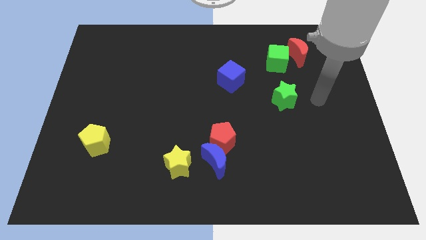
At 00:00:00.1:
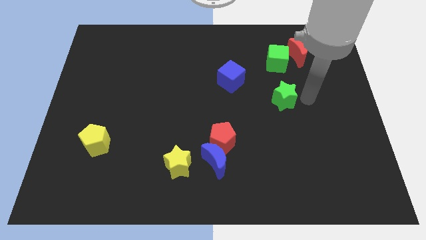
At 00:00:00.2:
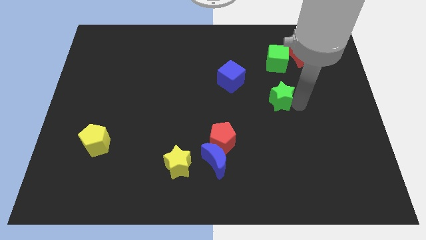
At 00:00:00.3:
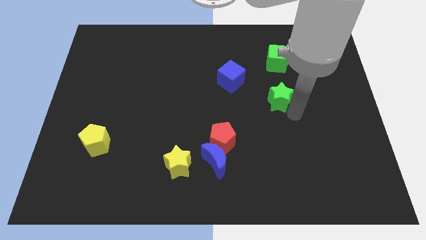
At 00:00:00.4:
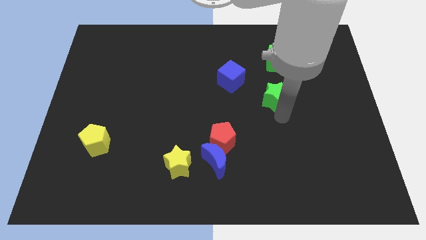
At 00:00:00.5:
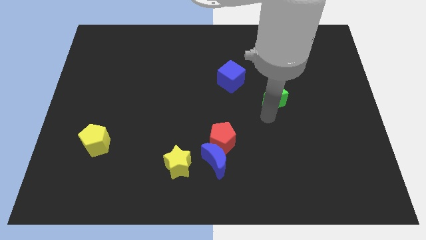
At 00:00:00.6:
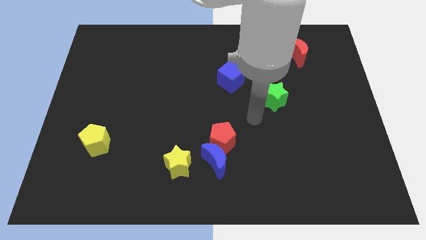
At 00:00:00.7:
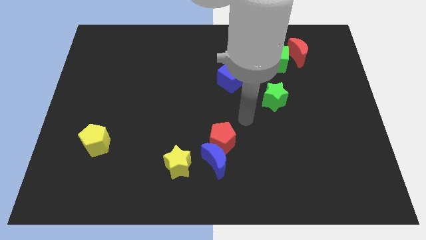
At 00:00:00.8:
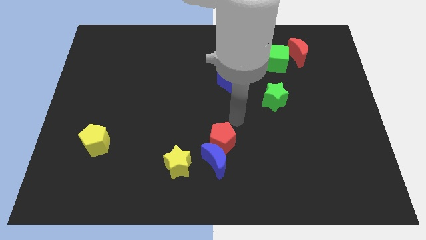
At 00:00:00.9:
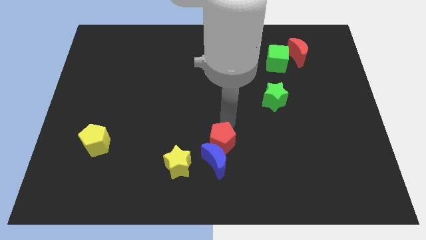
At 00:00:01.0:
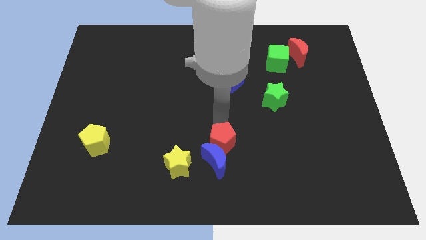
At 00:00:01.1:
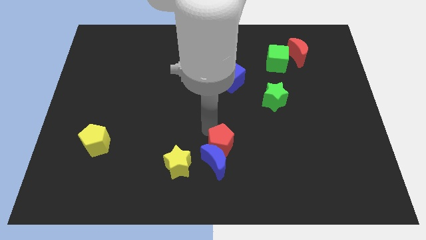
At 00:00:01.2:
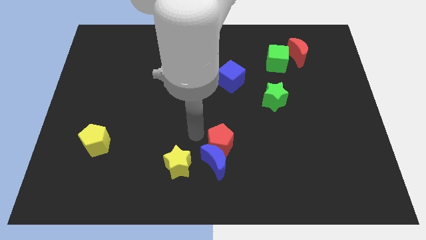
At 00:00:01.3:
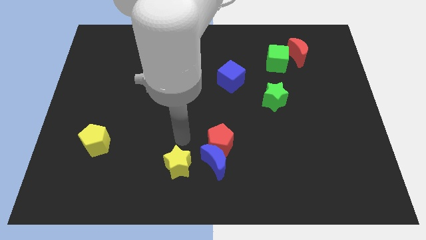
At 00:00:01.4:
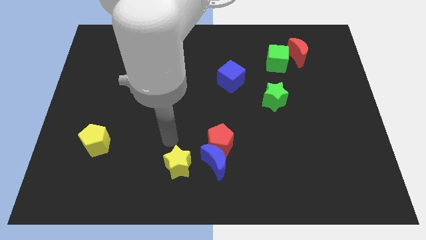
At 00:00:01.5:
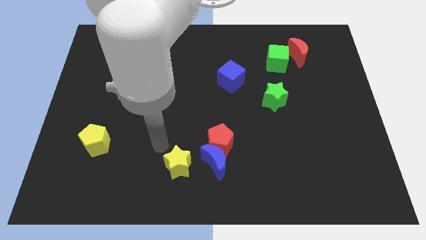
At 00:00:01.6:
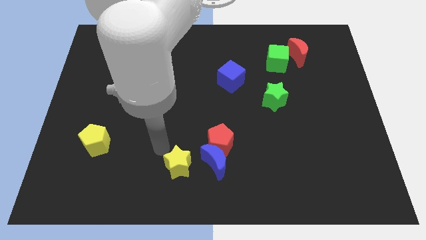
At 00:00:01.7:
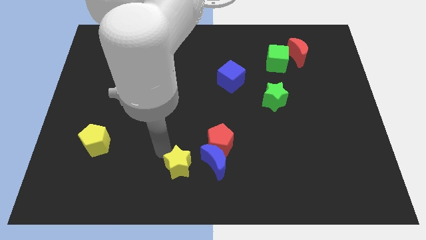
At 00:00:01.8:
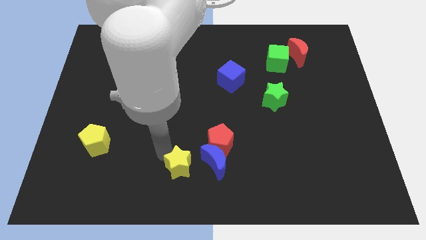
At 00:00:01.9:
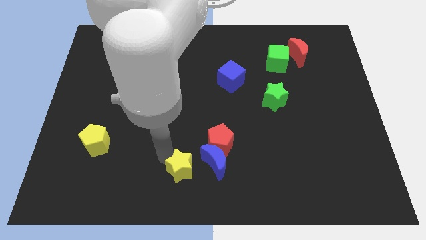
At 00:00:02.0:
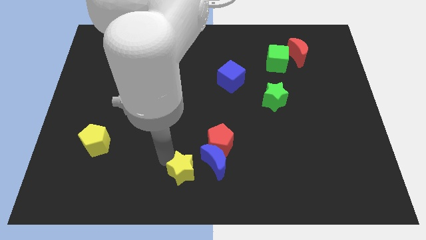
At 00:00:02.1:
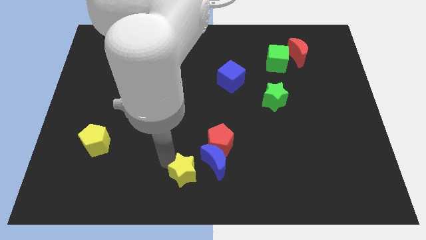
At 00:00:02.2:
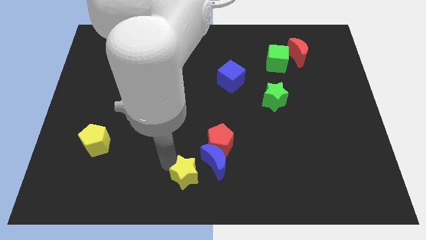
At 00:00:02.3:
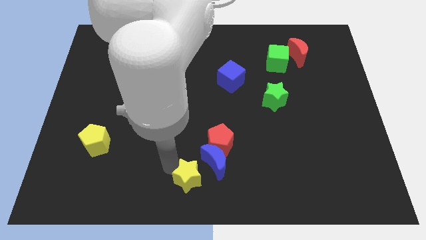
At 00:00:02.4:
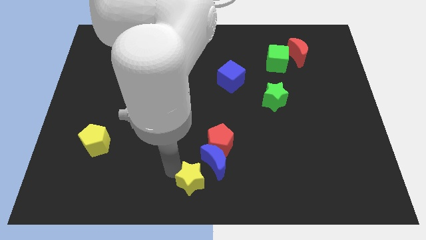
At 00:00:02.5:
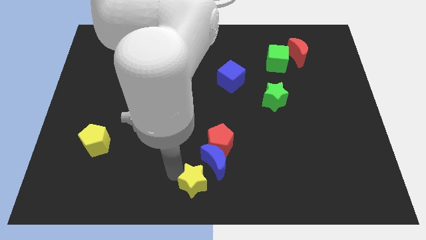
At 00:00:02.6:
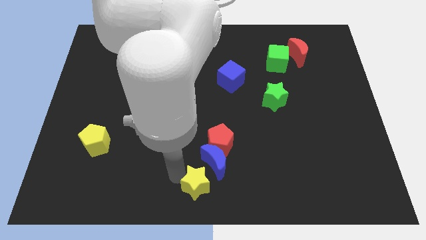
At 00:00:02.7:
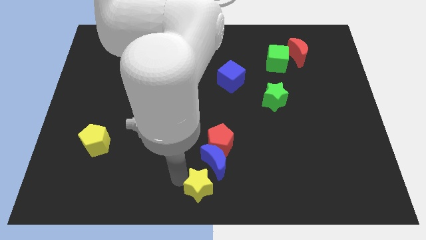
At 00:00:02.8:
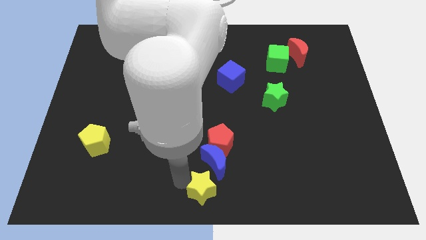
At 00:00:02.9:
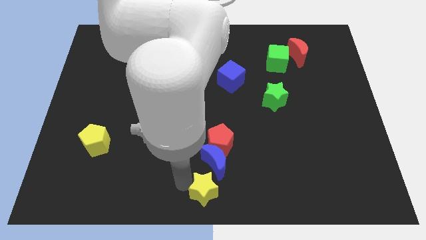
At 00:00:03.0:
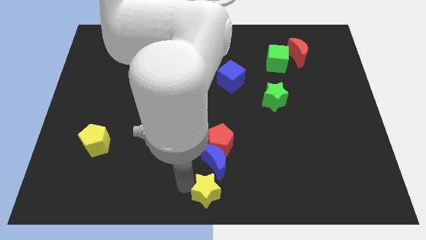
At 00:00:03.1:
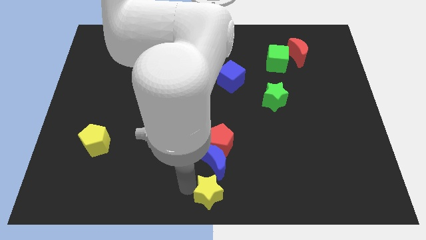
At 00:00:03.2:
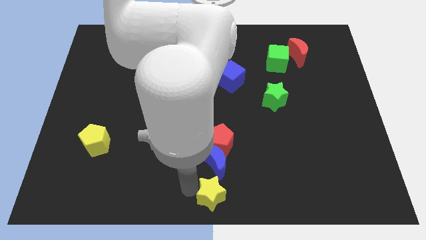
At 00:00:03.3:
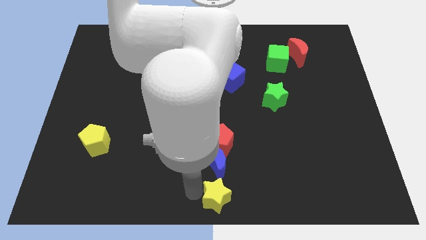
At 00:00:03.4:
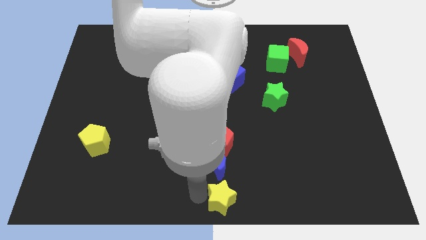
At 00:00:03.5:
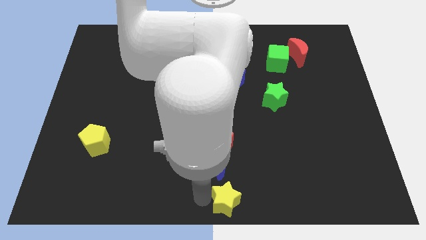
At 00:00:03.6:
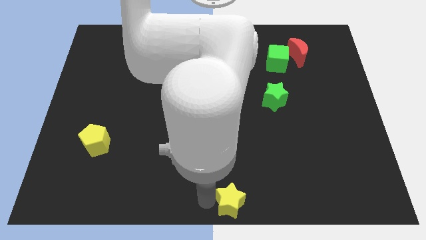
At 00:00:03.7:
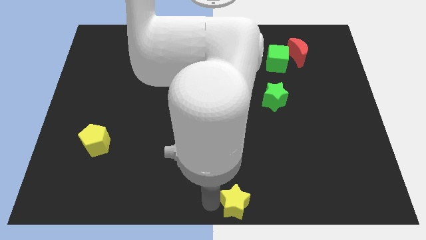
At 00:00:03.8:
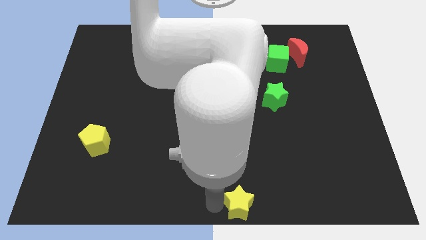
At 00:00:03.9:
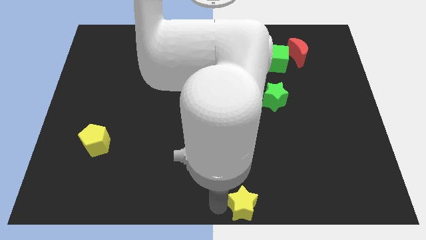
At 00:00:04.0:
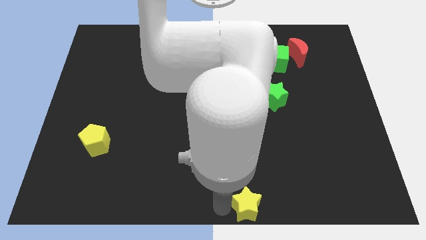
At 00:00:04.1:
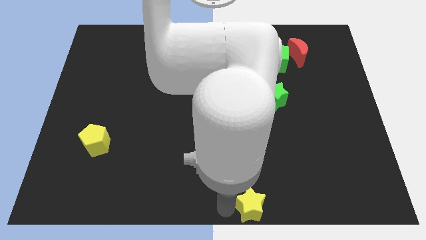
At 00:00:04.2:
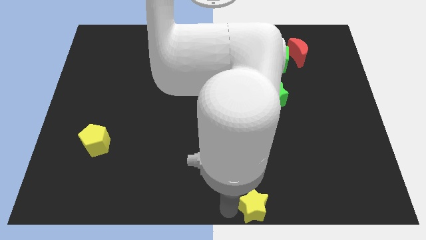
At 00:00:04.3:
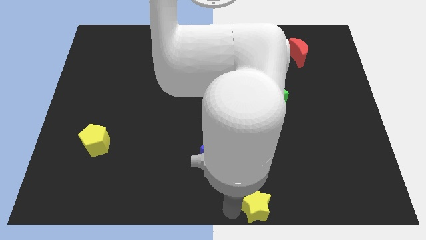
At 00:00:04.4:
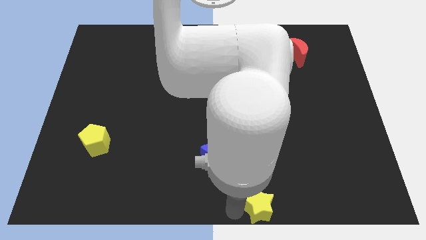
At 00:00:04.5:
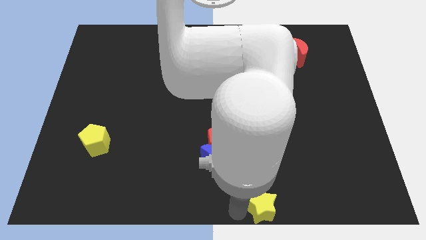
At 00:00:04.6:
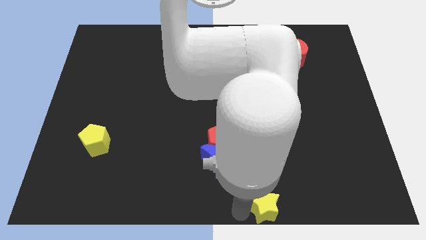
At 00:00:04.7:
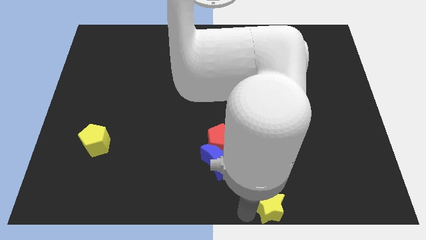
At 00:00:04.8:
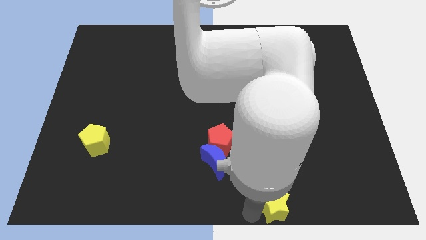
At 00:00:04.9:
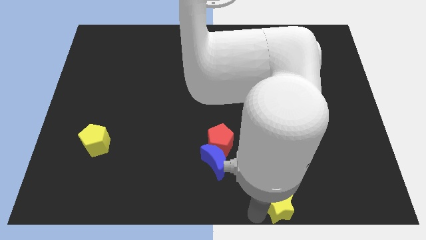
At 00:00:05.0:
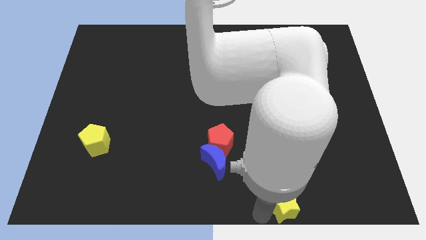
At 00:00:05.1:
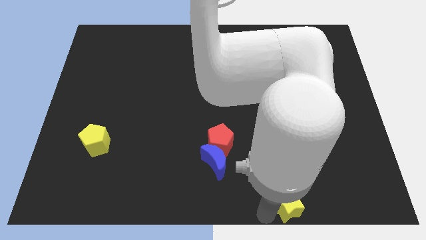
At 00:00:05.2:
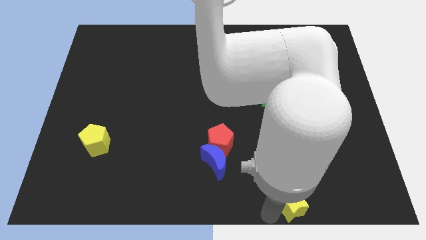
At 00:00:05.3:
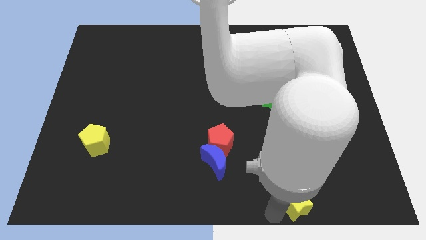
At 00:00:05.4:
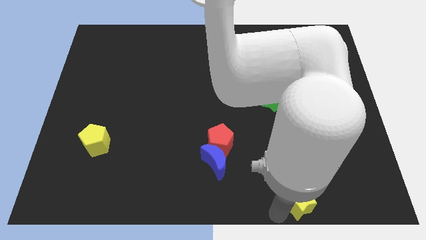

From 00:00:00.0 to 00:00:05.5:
push the yellow star right

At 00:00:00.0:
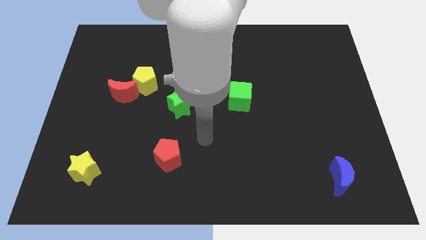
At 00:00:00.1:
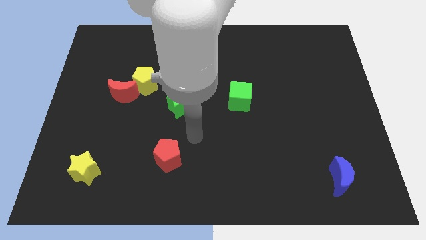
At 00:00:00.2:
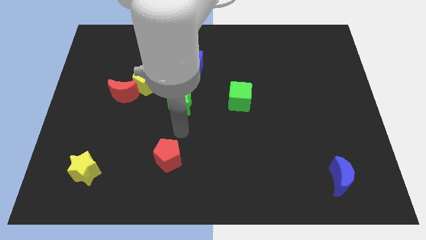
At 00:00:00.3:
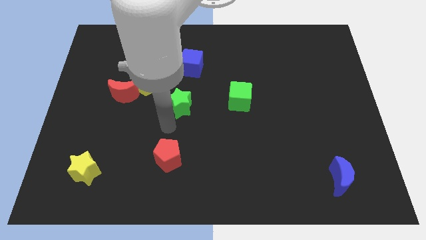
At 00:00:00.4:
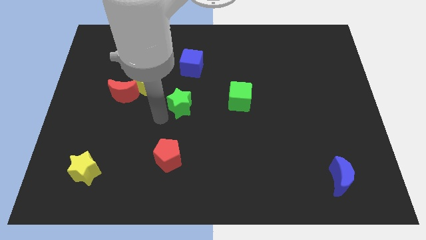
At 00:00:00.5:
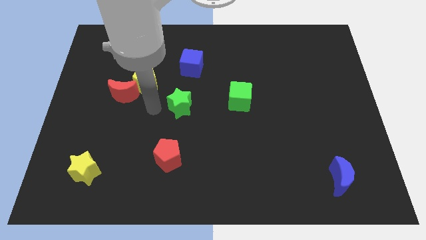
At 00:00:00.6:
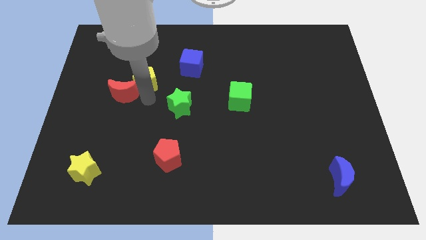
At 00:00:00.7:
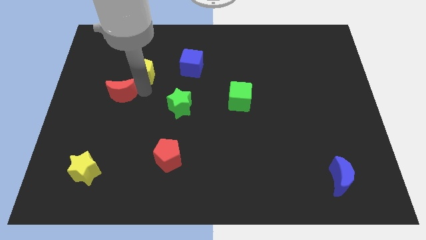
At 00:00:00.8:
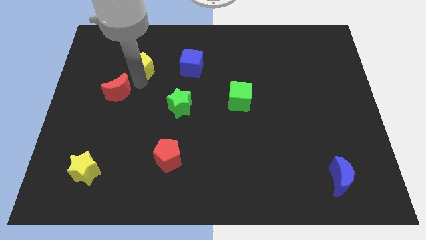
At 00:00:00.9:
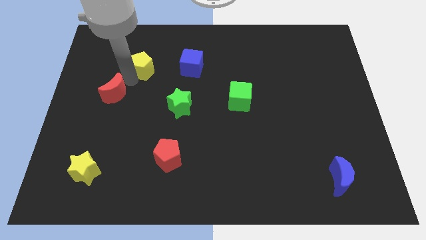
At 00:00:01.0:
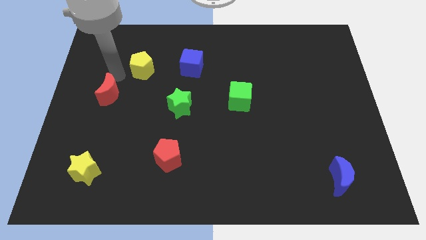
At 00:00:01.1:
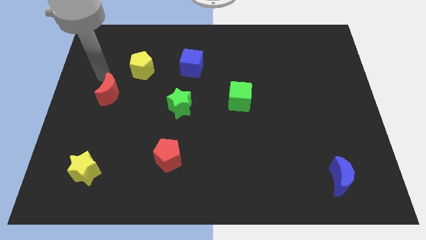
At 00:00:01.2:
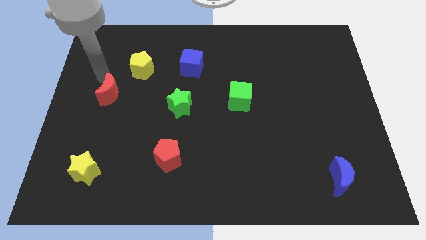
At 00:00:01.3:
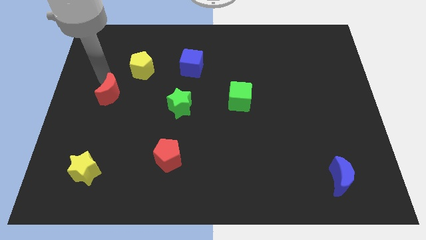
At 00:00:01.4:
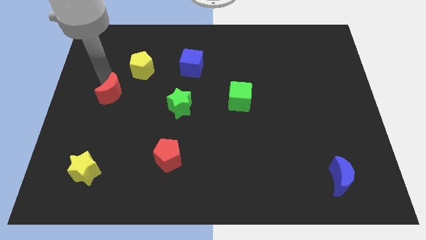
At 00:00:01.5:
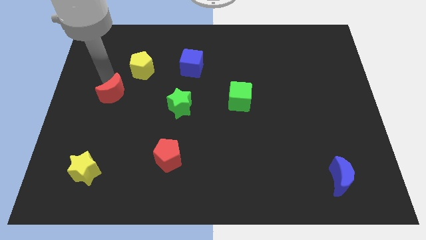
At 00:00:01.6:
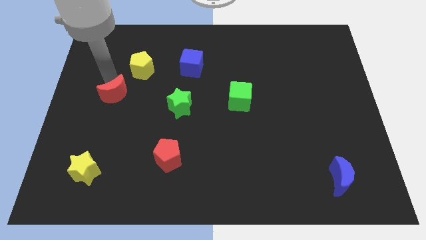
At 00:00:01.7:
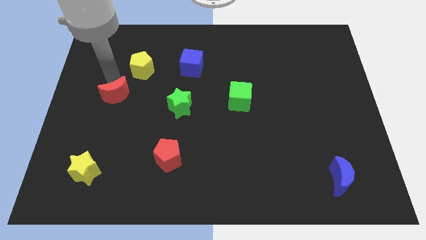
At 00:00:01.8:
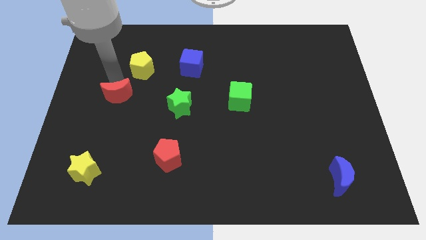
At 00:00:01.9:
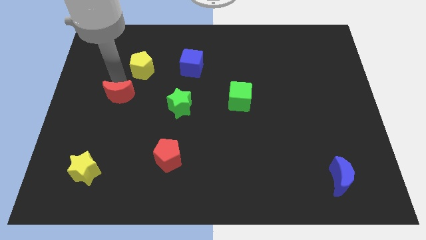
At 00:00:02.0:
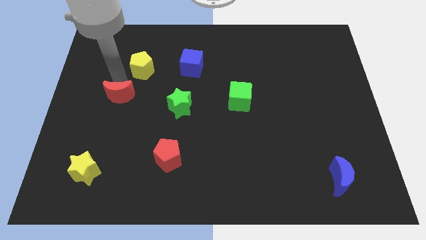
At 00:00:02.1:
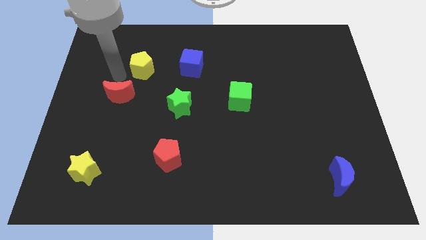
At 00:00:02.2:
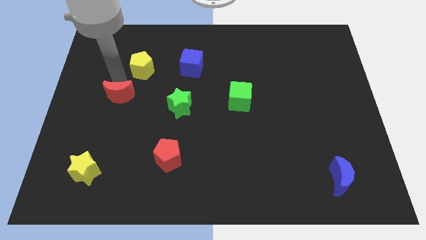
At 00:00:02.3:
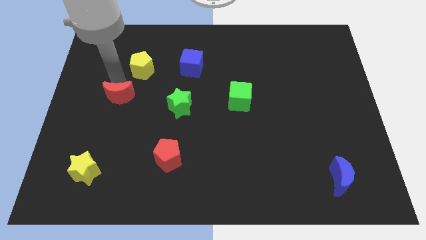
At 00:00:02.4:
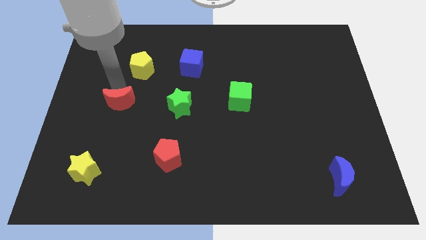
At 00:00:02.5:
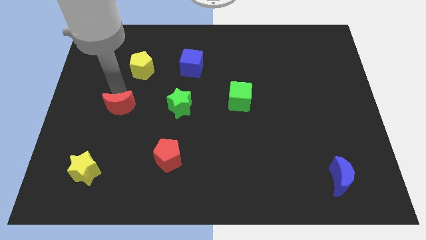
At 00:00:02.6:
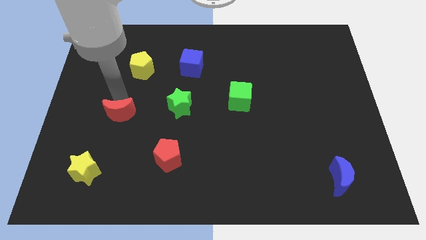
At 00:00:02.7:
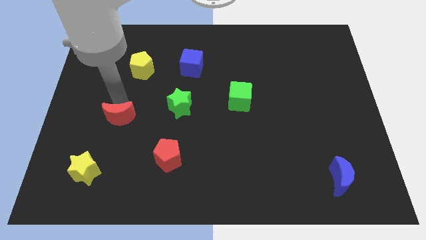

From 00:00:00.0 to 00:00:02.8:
push the red moon down somewhat
